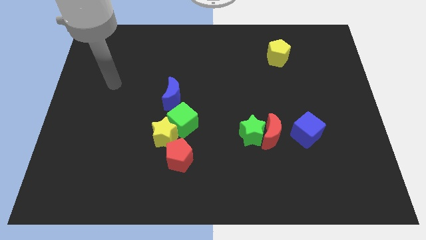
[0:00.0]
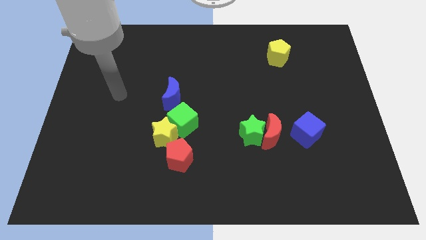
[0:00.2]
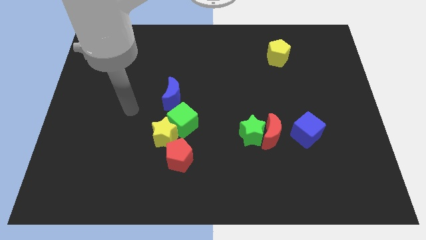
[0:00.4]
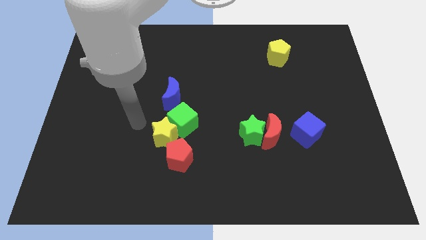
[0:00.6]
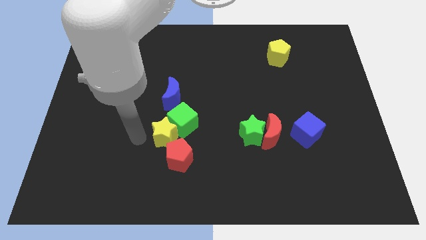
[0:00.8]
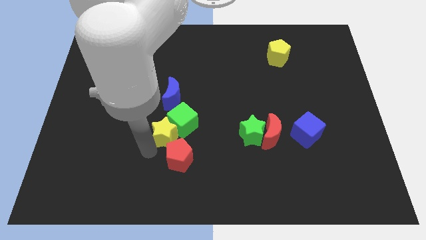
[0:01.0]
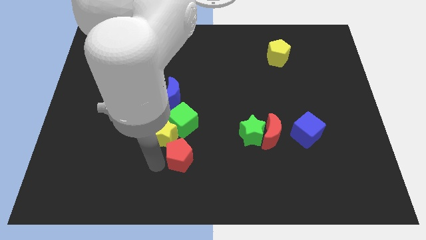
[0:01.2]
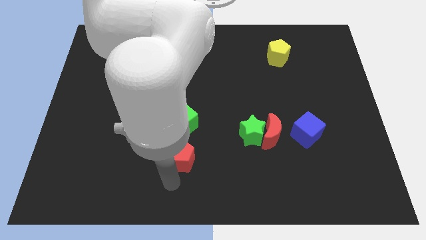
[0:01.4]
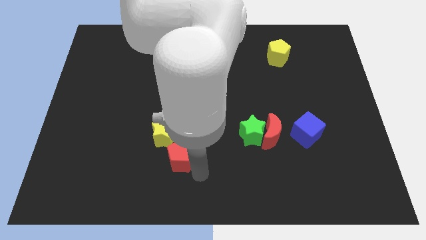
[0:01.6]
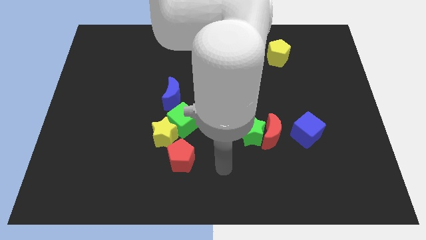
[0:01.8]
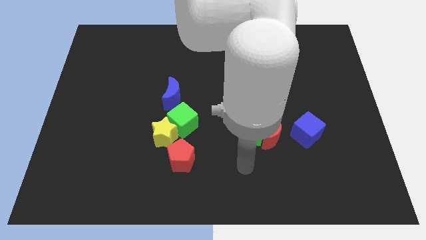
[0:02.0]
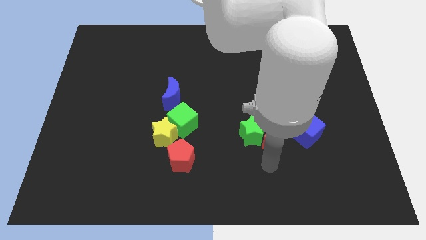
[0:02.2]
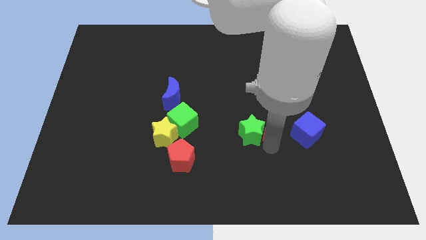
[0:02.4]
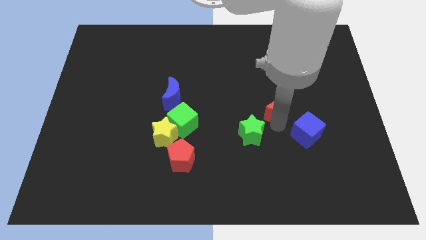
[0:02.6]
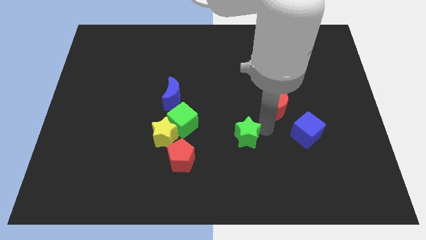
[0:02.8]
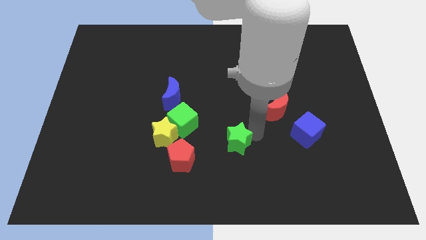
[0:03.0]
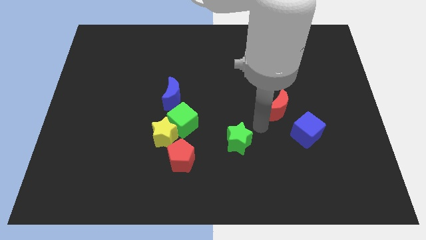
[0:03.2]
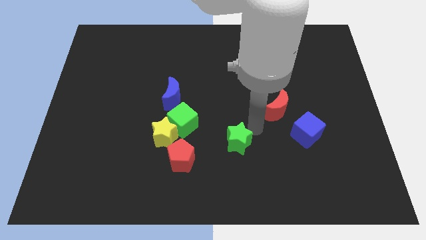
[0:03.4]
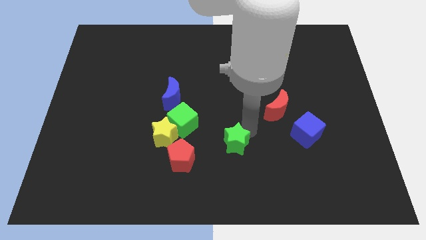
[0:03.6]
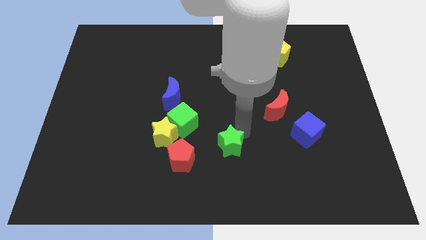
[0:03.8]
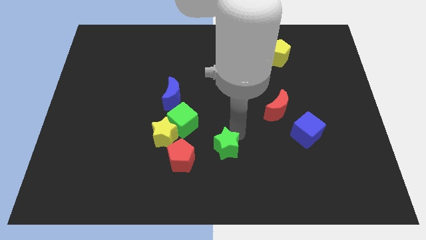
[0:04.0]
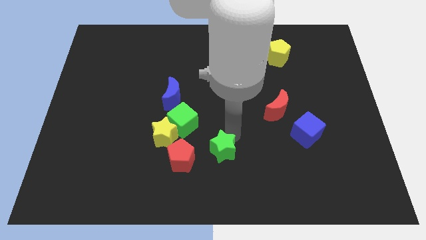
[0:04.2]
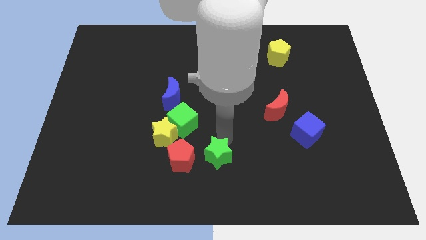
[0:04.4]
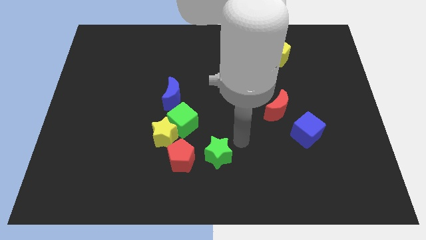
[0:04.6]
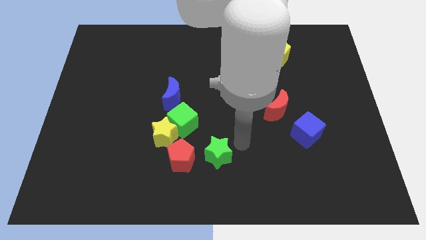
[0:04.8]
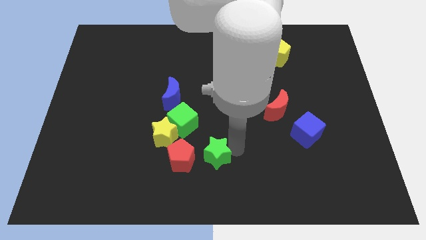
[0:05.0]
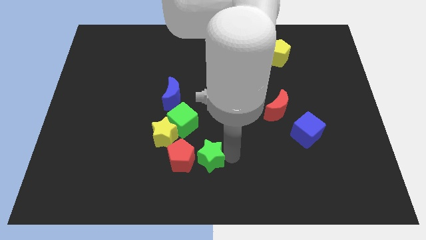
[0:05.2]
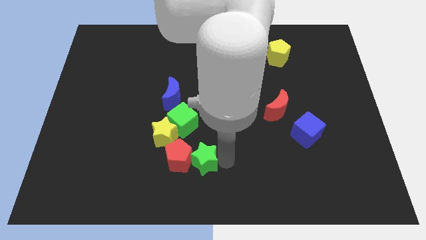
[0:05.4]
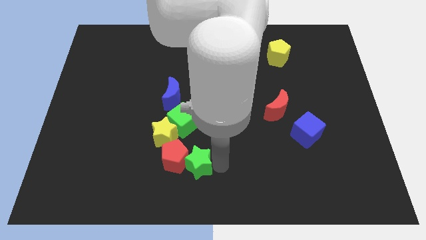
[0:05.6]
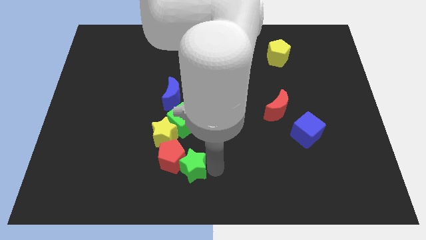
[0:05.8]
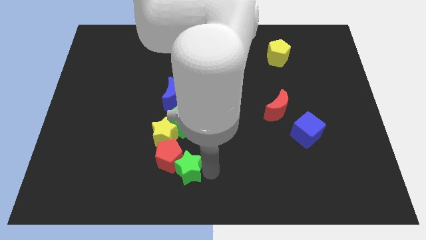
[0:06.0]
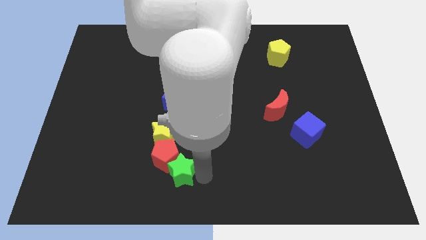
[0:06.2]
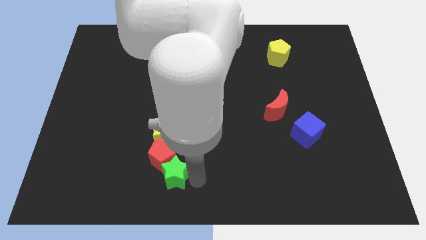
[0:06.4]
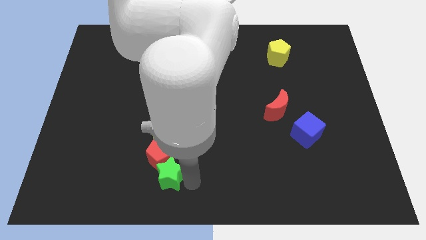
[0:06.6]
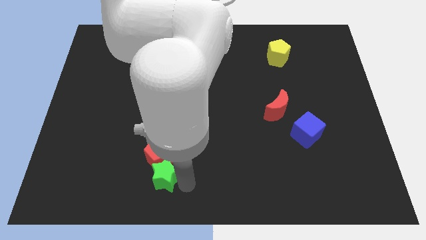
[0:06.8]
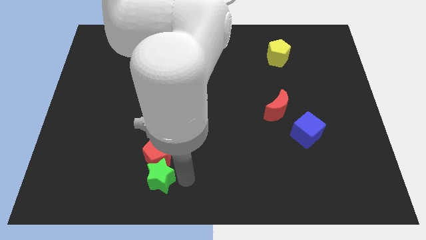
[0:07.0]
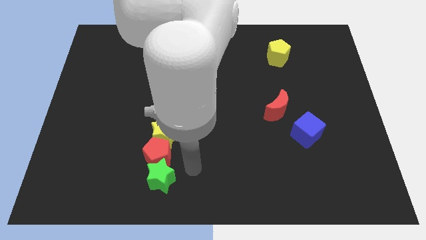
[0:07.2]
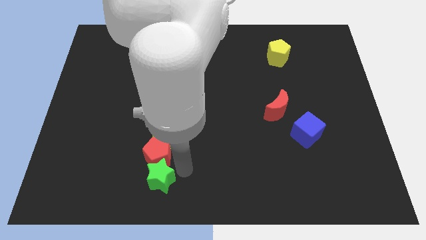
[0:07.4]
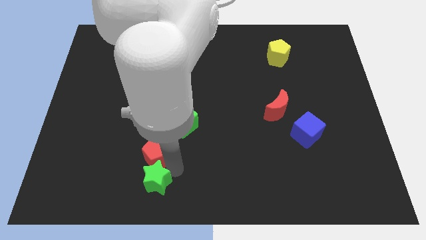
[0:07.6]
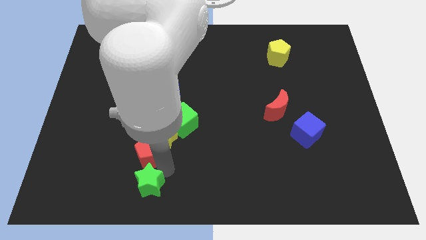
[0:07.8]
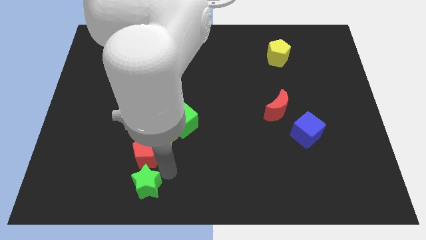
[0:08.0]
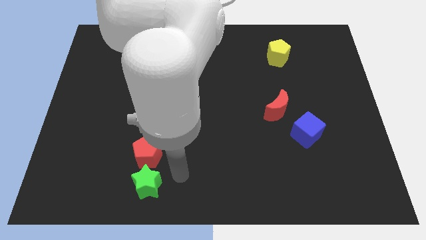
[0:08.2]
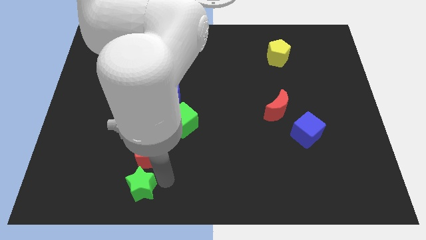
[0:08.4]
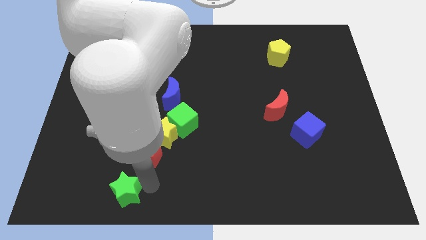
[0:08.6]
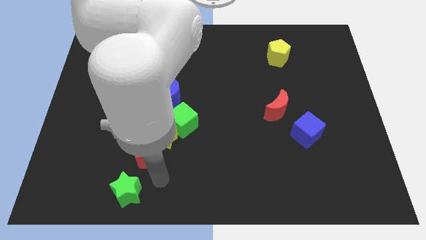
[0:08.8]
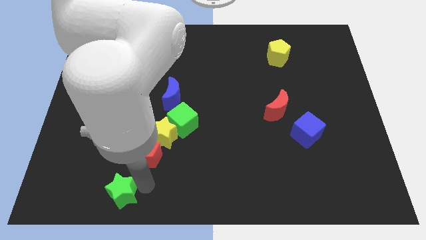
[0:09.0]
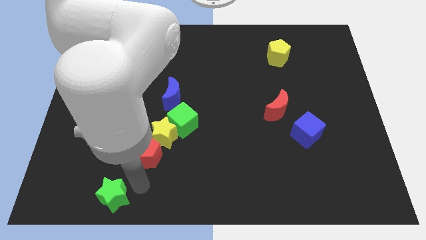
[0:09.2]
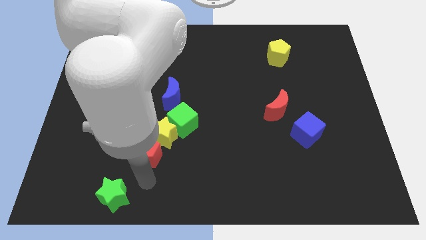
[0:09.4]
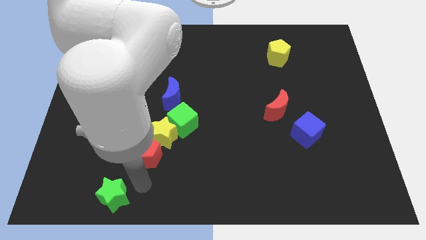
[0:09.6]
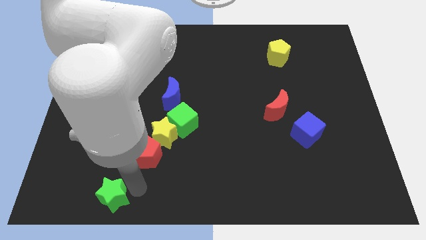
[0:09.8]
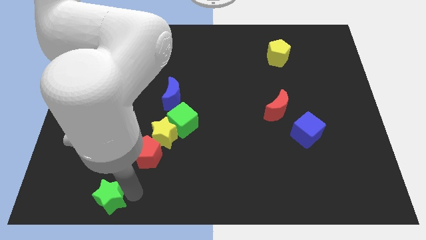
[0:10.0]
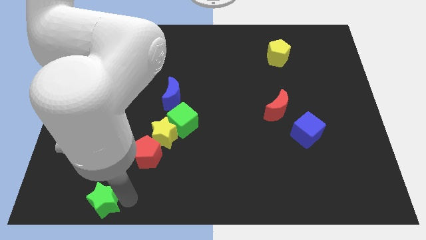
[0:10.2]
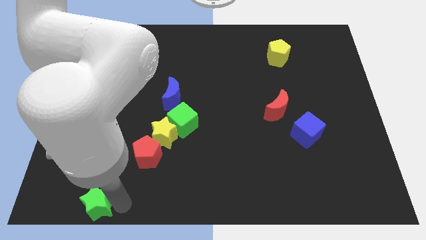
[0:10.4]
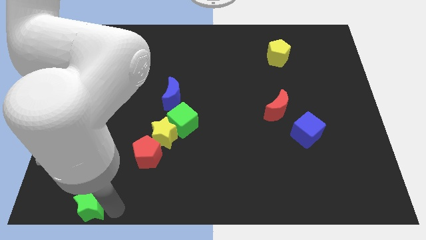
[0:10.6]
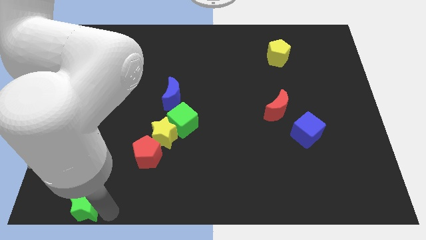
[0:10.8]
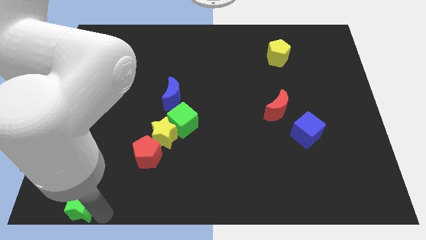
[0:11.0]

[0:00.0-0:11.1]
move the green star to the lower left corner

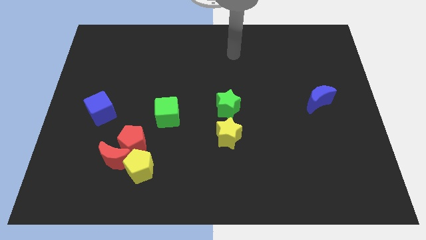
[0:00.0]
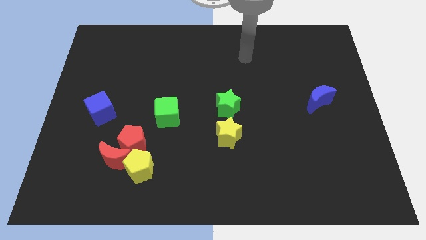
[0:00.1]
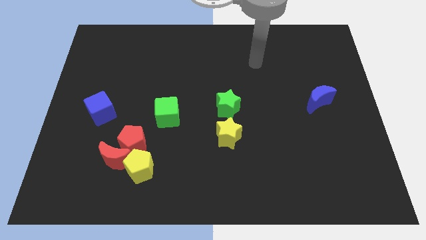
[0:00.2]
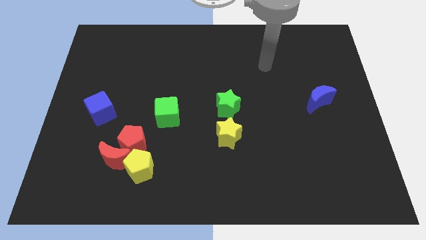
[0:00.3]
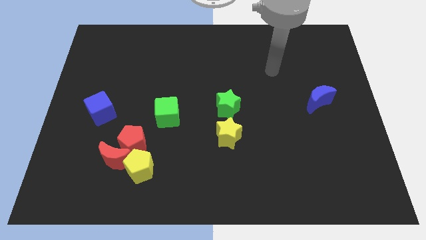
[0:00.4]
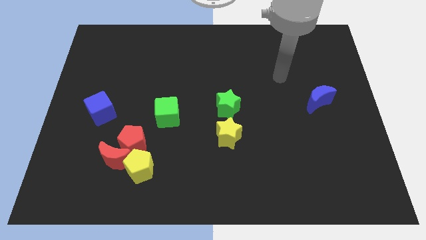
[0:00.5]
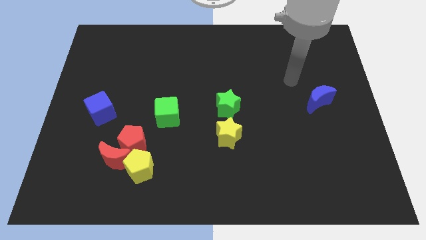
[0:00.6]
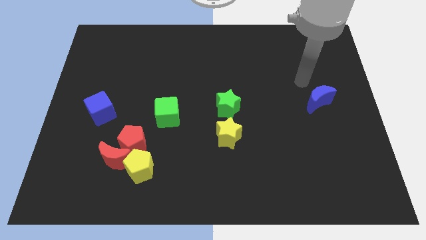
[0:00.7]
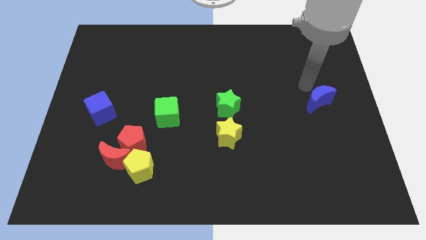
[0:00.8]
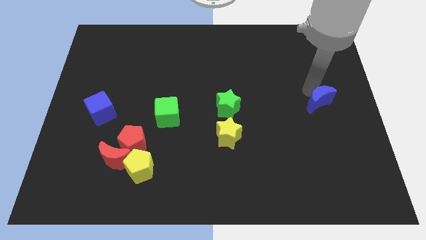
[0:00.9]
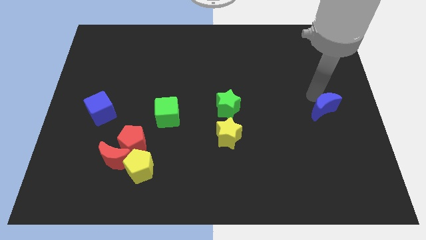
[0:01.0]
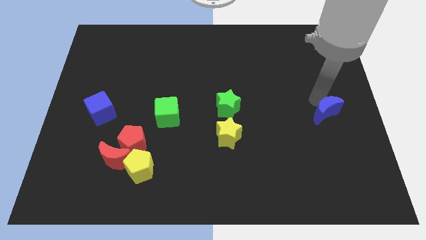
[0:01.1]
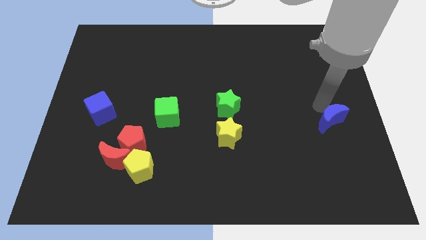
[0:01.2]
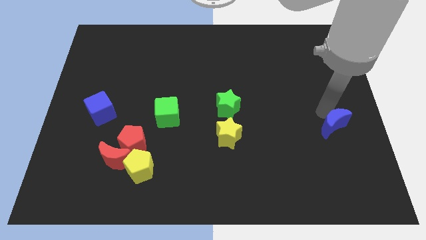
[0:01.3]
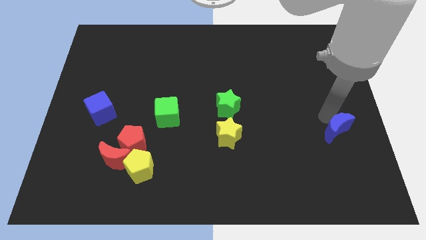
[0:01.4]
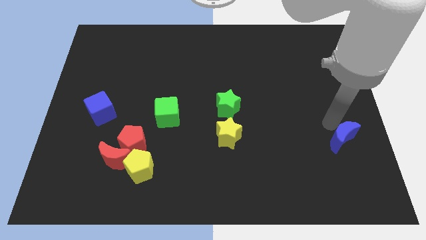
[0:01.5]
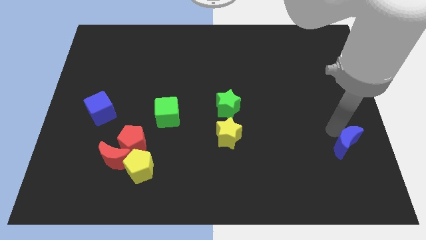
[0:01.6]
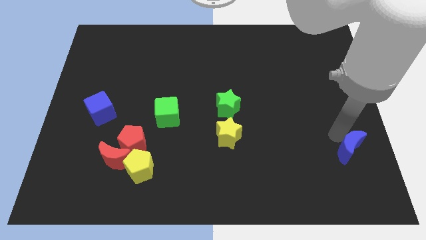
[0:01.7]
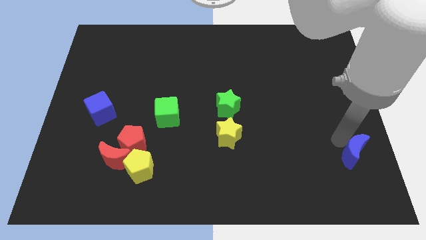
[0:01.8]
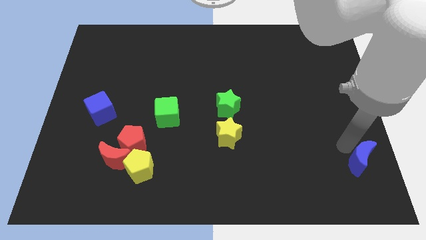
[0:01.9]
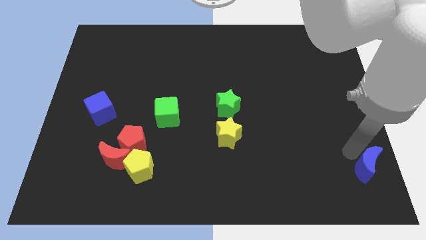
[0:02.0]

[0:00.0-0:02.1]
put the blue moon to the lower right corner
